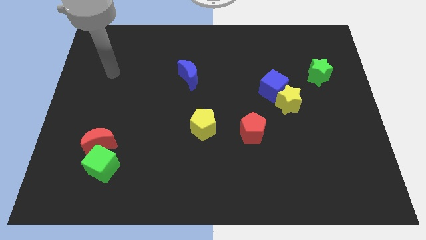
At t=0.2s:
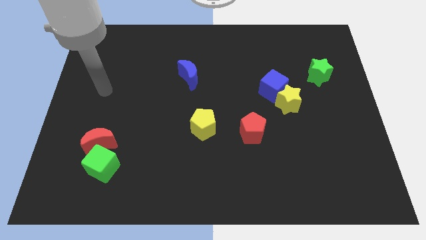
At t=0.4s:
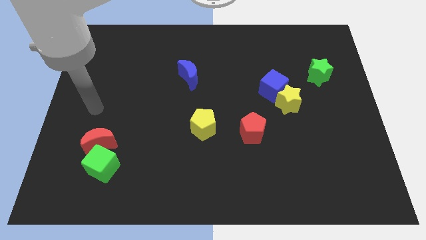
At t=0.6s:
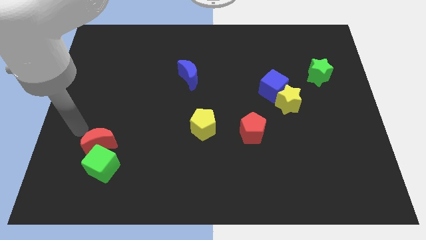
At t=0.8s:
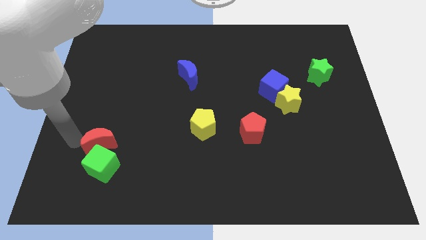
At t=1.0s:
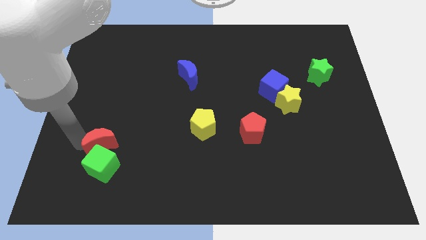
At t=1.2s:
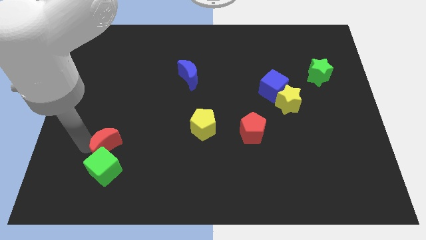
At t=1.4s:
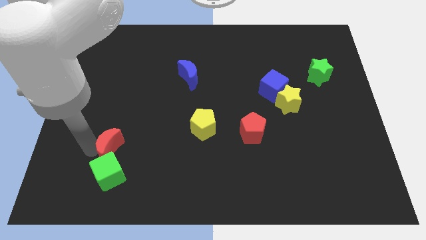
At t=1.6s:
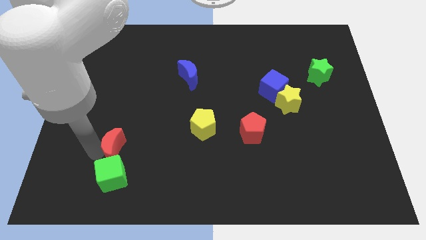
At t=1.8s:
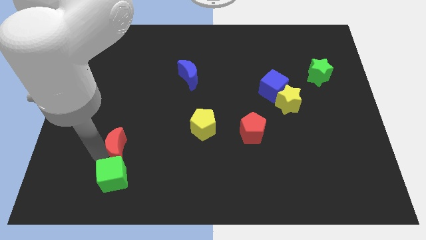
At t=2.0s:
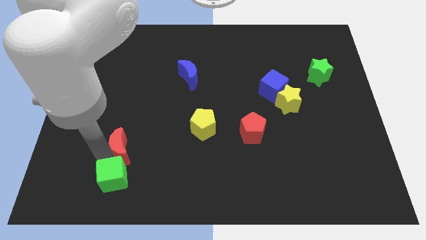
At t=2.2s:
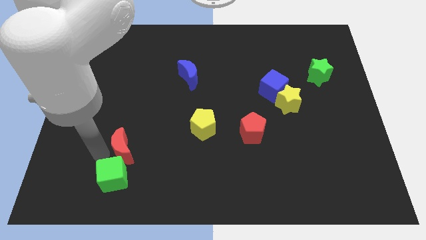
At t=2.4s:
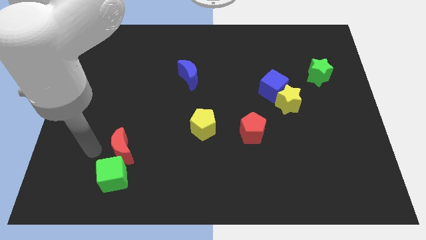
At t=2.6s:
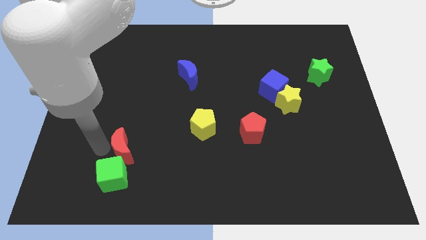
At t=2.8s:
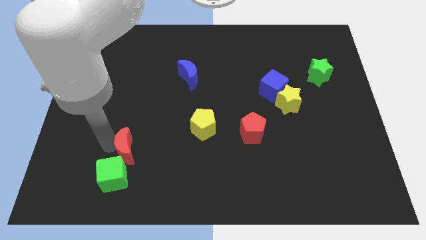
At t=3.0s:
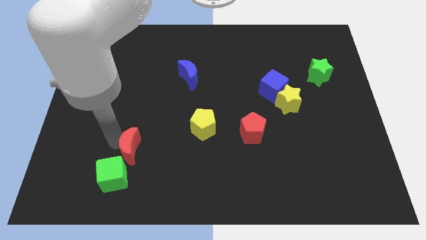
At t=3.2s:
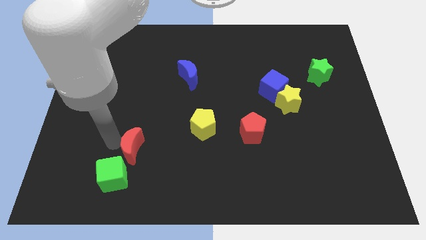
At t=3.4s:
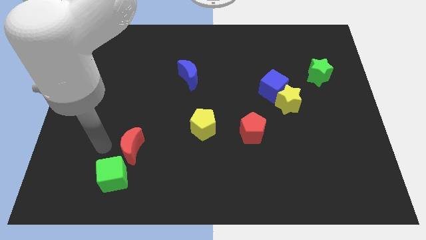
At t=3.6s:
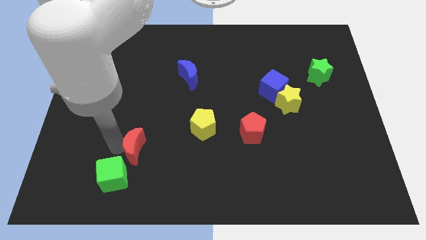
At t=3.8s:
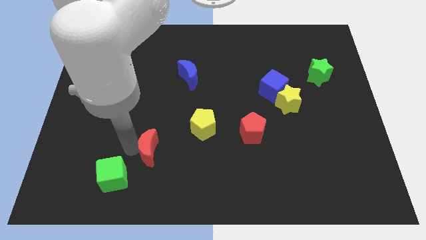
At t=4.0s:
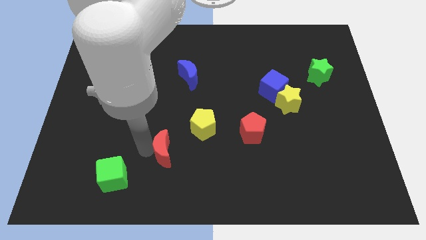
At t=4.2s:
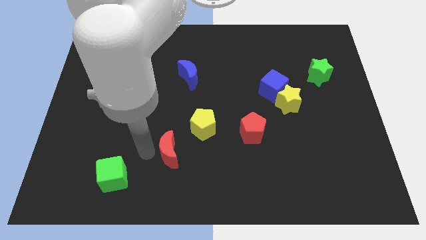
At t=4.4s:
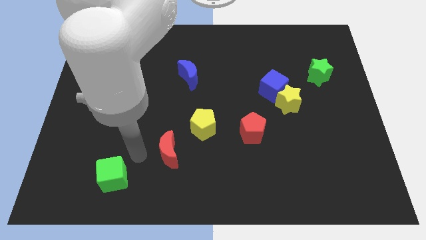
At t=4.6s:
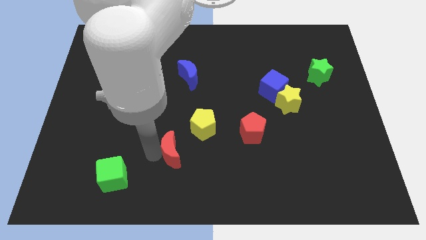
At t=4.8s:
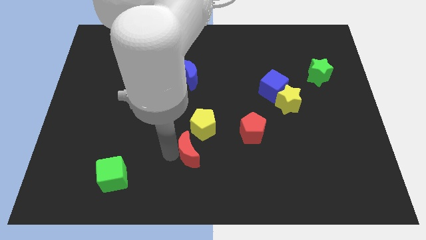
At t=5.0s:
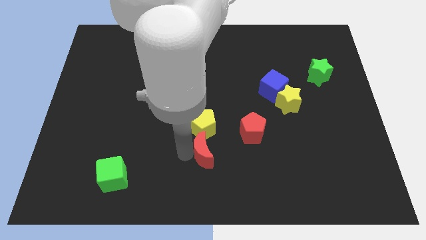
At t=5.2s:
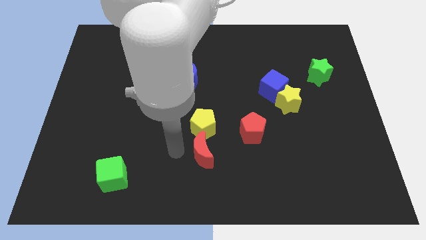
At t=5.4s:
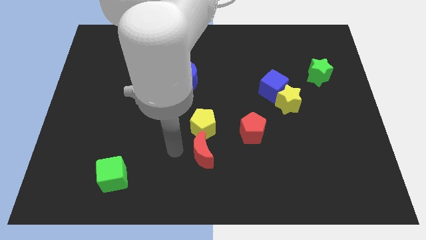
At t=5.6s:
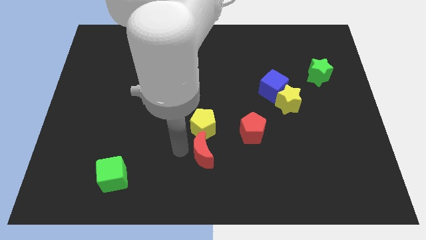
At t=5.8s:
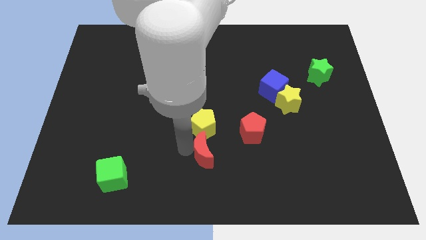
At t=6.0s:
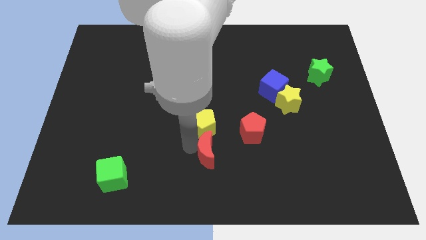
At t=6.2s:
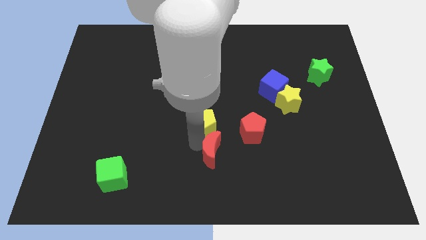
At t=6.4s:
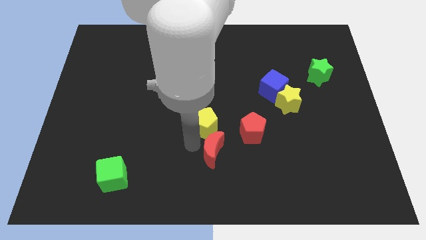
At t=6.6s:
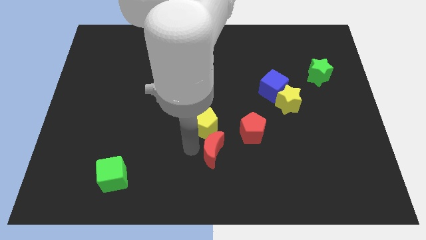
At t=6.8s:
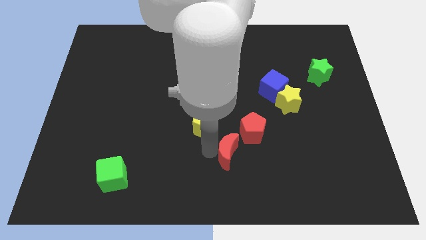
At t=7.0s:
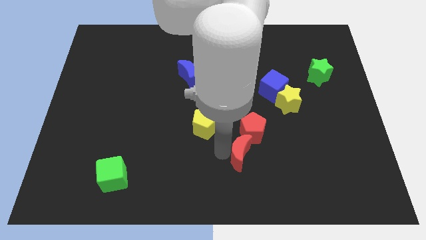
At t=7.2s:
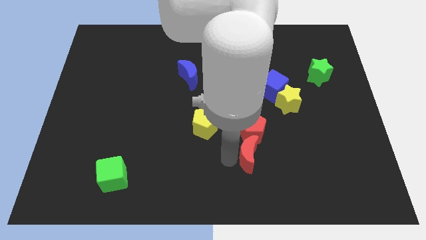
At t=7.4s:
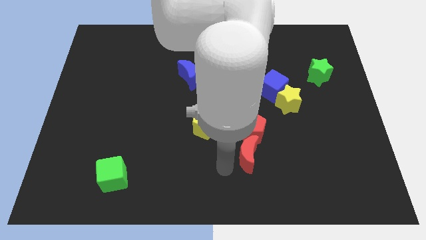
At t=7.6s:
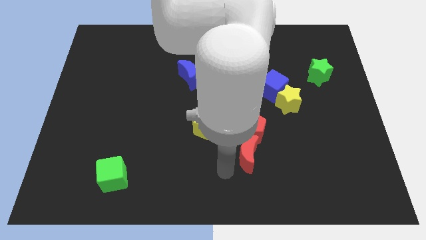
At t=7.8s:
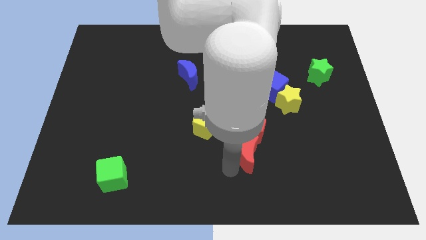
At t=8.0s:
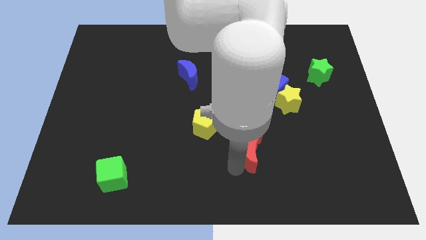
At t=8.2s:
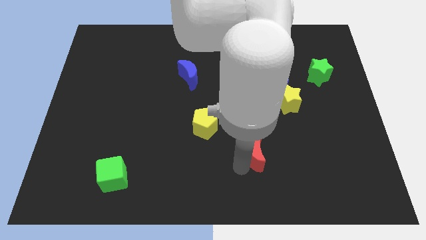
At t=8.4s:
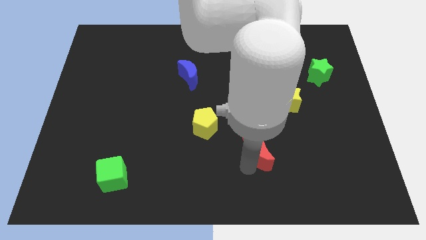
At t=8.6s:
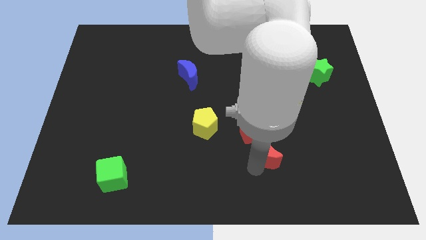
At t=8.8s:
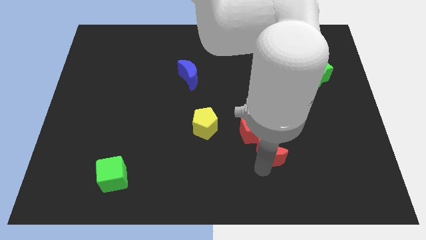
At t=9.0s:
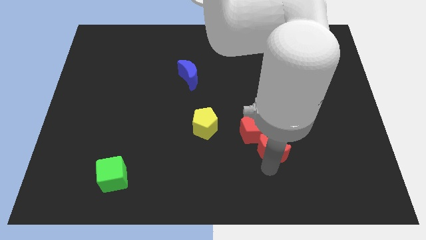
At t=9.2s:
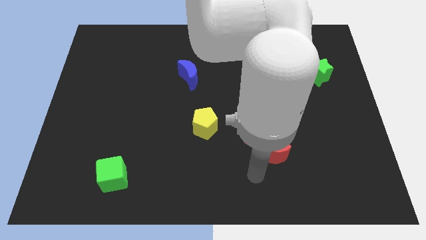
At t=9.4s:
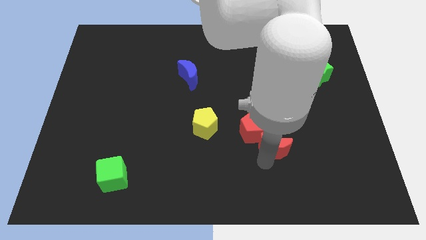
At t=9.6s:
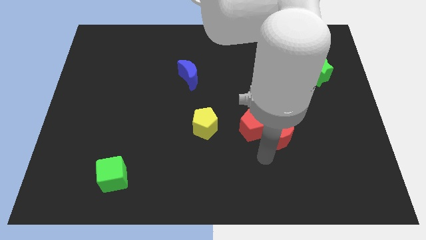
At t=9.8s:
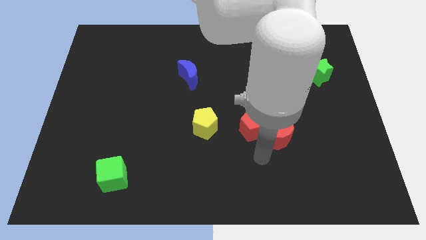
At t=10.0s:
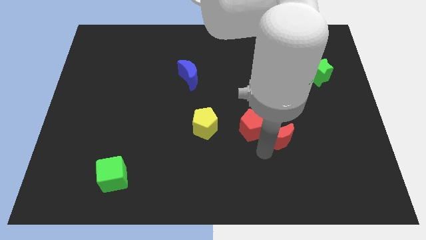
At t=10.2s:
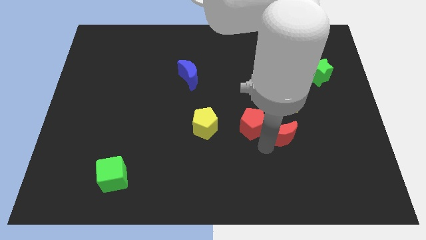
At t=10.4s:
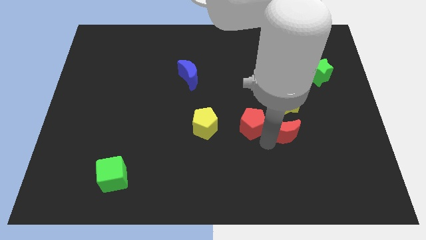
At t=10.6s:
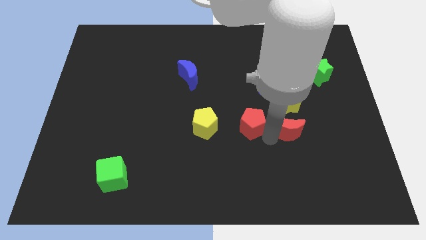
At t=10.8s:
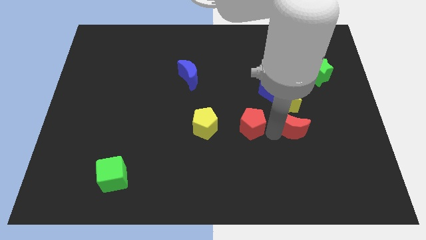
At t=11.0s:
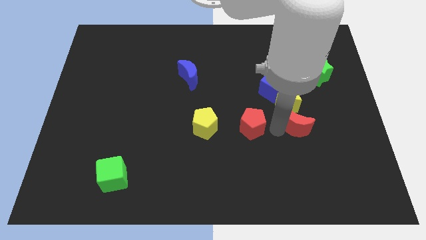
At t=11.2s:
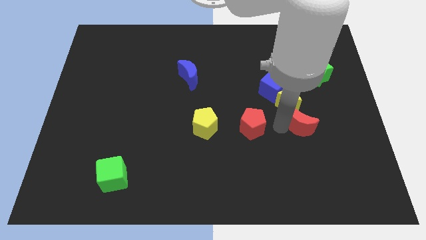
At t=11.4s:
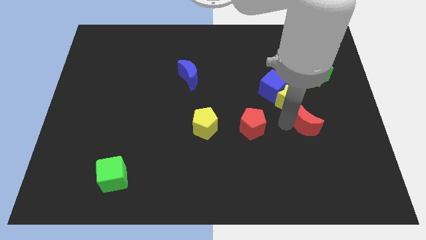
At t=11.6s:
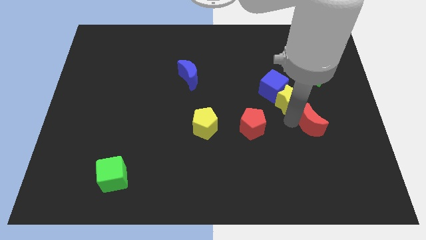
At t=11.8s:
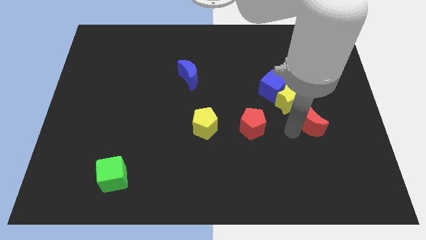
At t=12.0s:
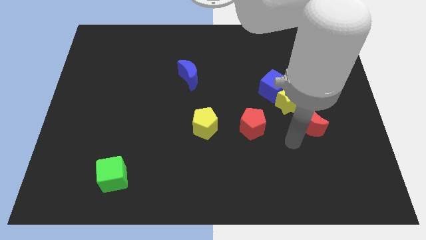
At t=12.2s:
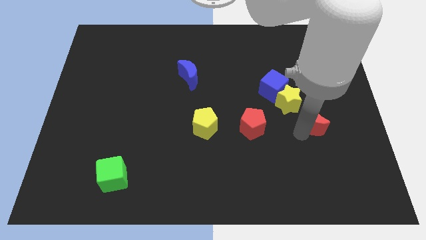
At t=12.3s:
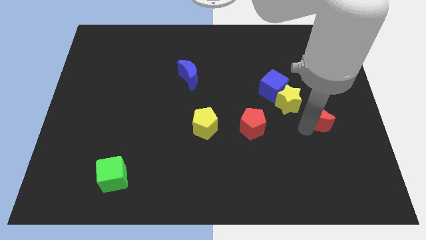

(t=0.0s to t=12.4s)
slide the red moon to the bottom side of the green star

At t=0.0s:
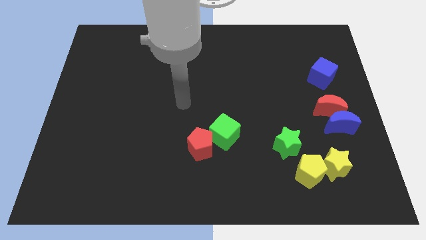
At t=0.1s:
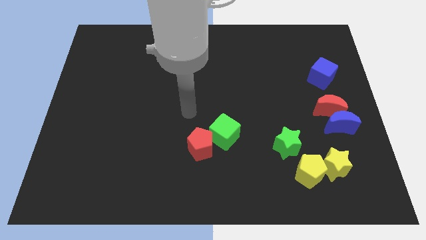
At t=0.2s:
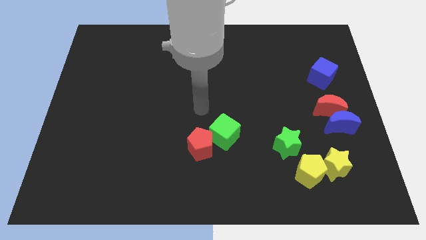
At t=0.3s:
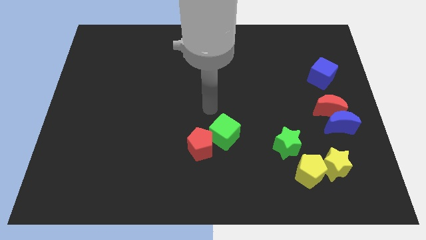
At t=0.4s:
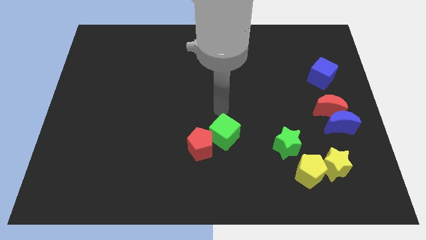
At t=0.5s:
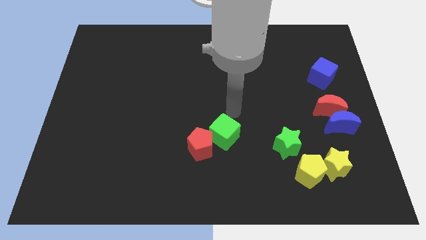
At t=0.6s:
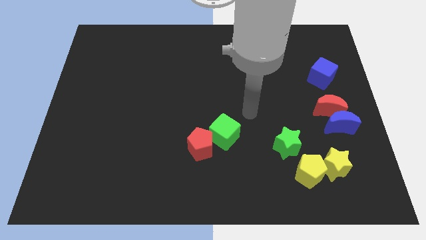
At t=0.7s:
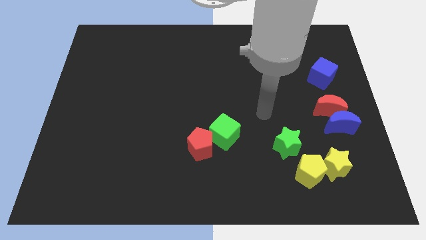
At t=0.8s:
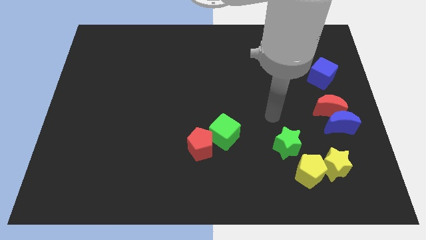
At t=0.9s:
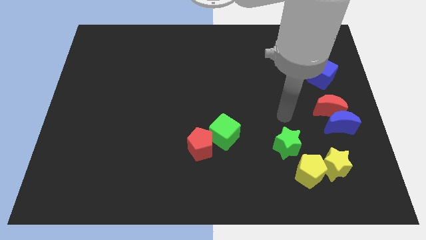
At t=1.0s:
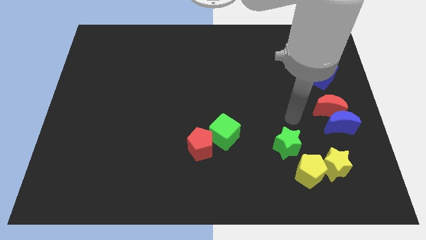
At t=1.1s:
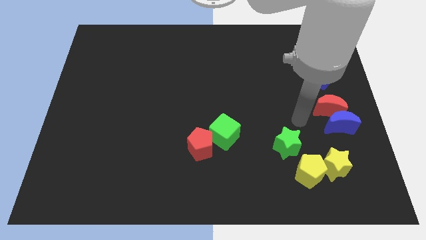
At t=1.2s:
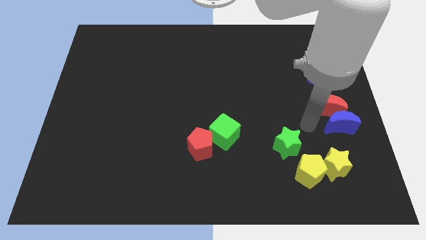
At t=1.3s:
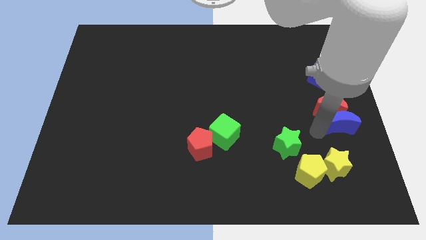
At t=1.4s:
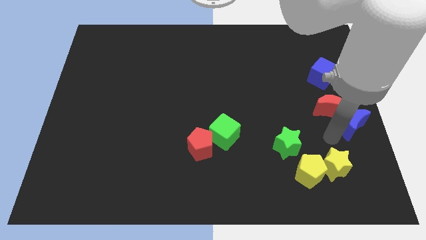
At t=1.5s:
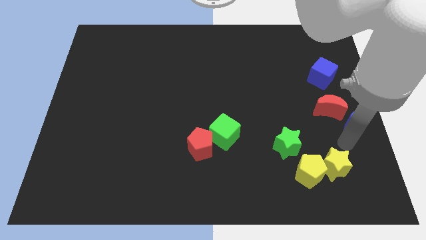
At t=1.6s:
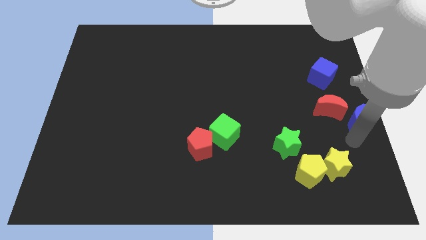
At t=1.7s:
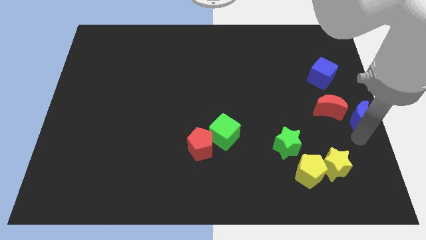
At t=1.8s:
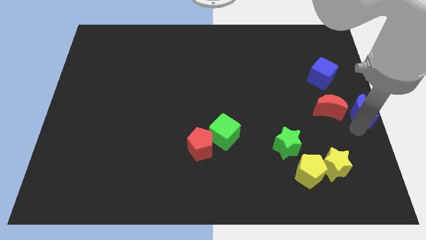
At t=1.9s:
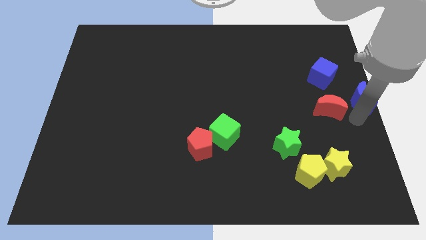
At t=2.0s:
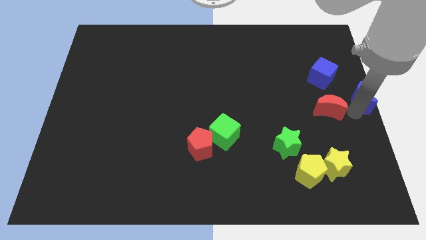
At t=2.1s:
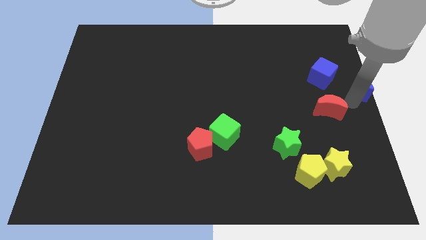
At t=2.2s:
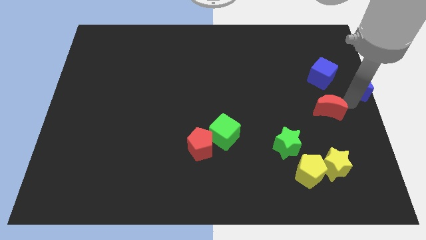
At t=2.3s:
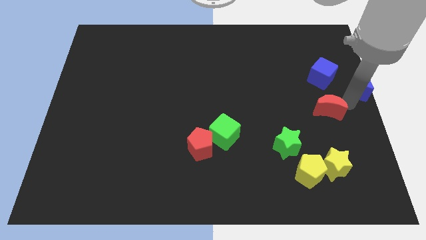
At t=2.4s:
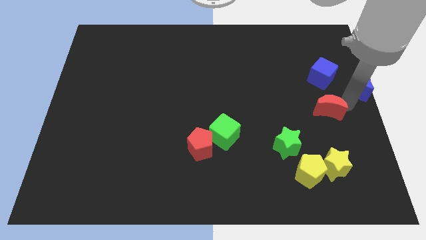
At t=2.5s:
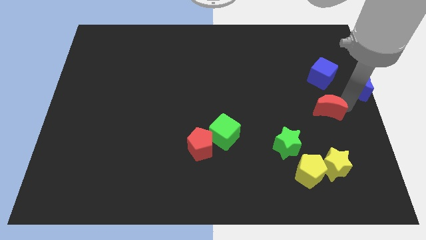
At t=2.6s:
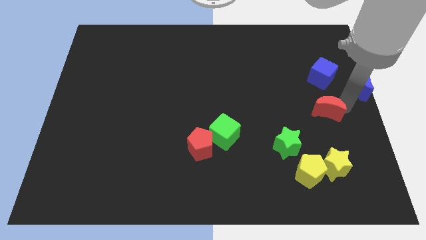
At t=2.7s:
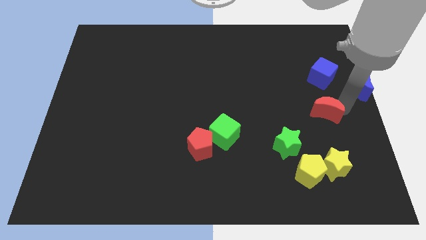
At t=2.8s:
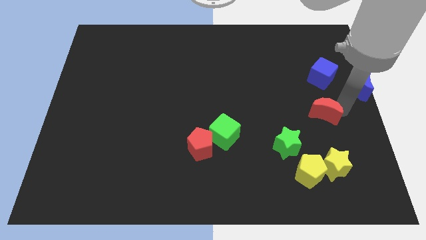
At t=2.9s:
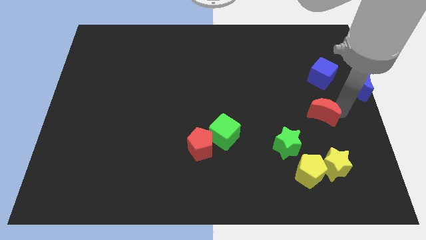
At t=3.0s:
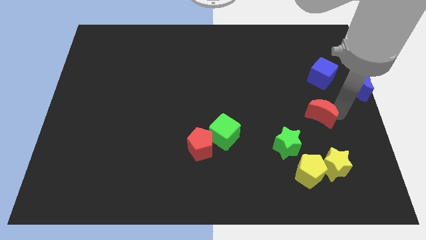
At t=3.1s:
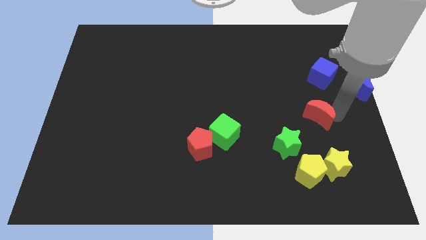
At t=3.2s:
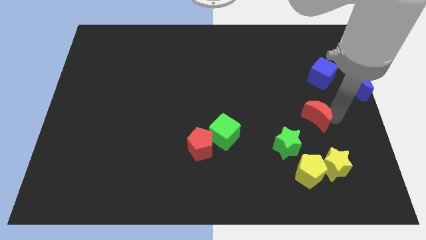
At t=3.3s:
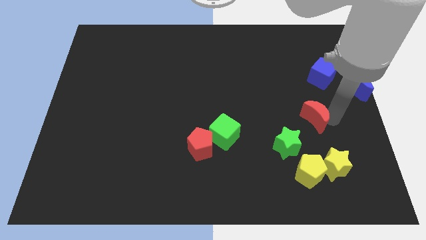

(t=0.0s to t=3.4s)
push the red moon to the top side of the yellow pentagon
